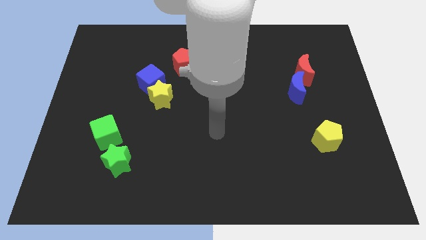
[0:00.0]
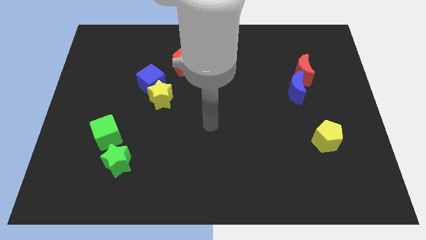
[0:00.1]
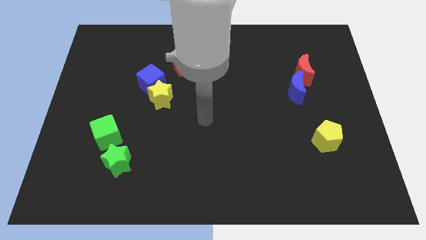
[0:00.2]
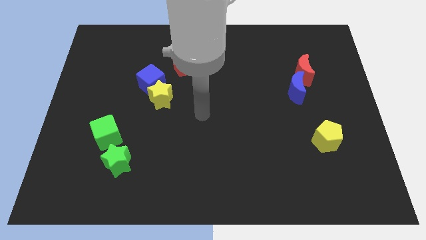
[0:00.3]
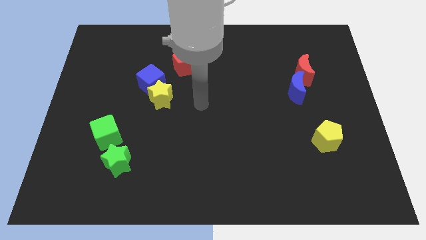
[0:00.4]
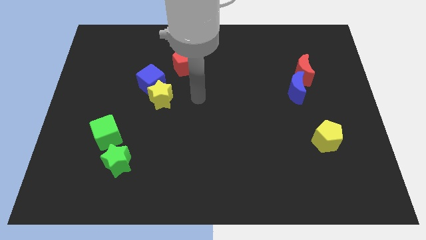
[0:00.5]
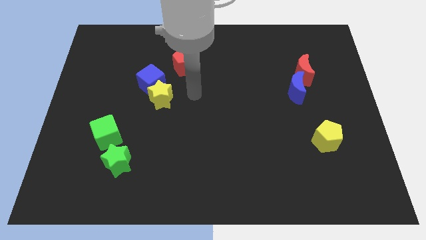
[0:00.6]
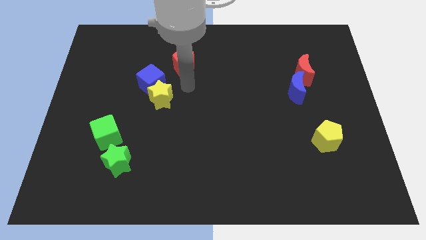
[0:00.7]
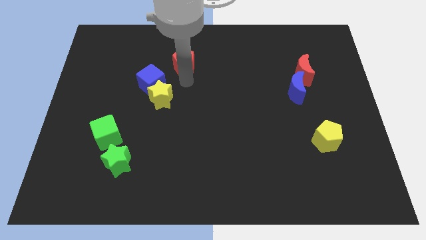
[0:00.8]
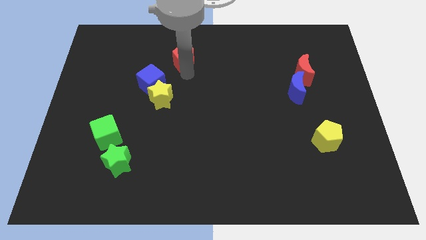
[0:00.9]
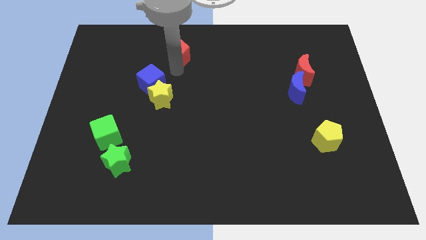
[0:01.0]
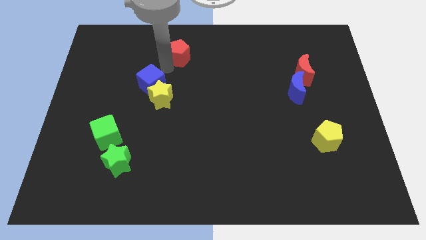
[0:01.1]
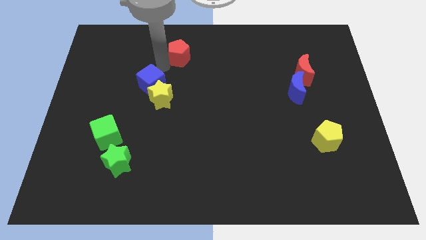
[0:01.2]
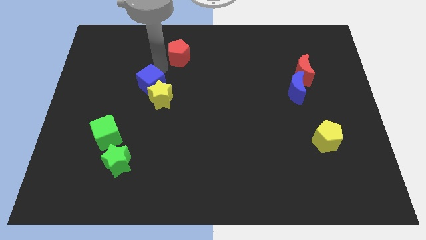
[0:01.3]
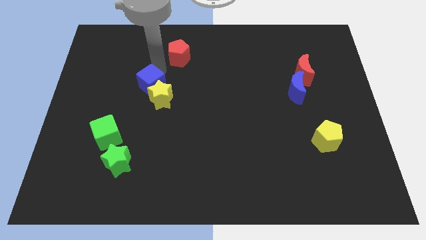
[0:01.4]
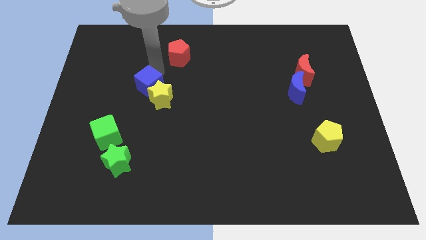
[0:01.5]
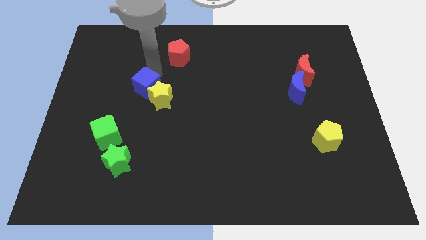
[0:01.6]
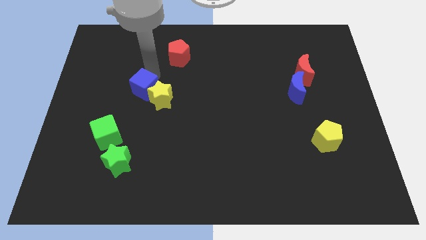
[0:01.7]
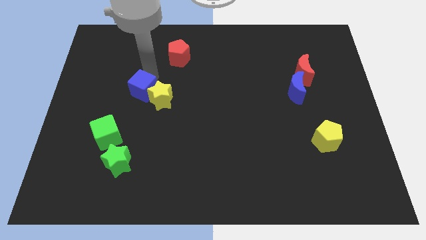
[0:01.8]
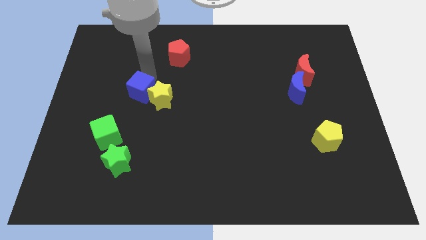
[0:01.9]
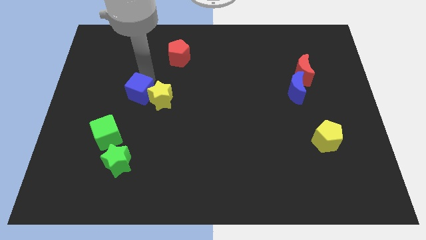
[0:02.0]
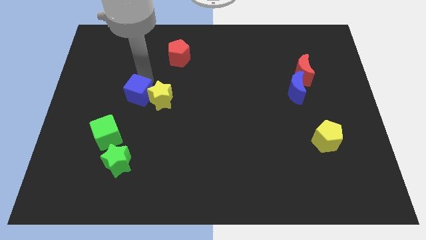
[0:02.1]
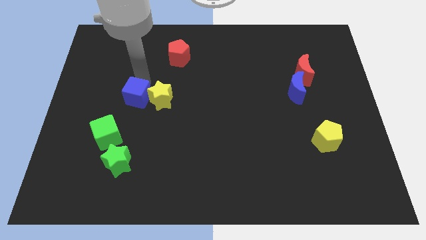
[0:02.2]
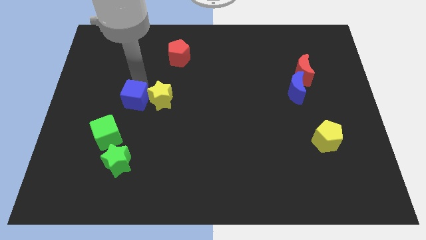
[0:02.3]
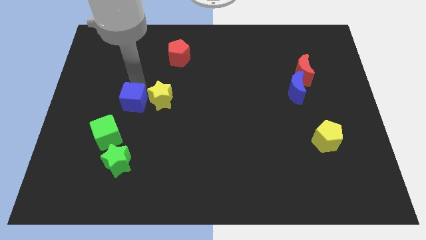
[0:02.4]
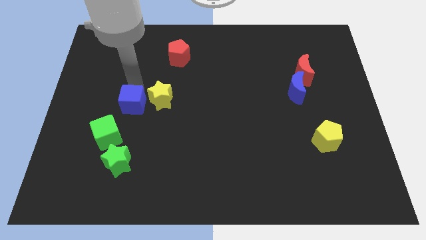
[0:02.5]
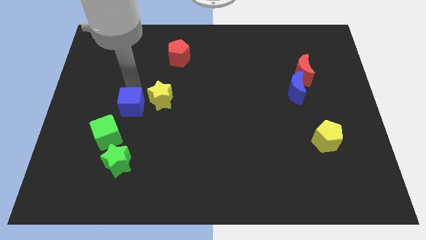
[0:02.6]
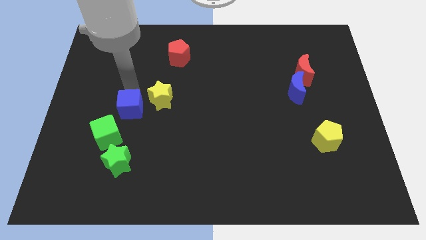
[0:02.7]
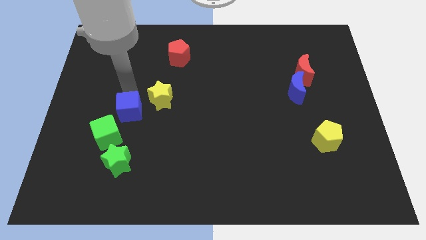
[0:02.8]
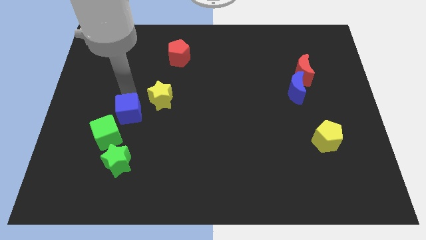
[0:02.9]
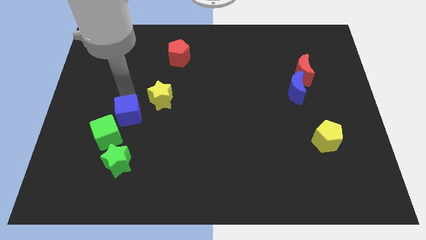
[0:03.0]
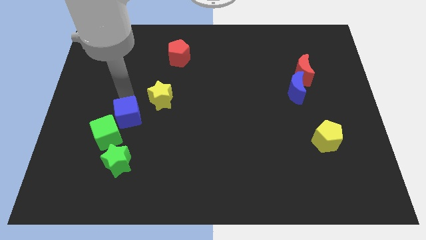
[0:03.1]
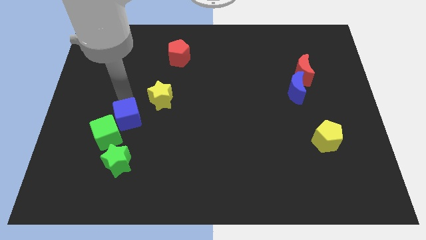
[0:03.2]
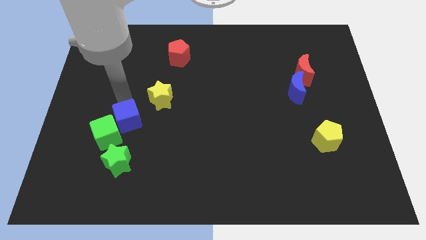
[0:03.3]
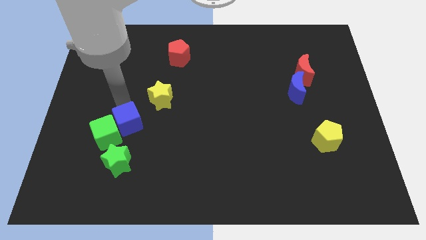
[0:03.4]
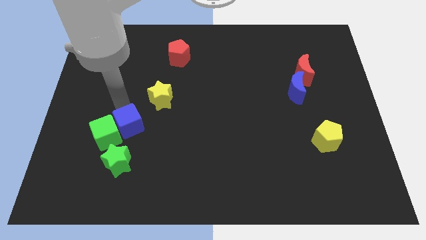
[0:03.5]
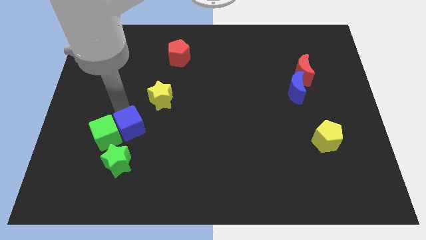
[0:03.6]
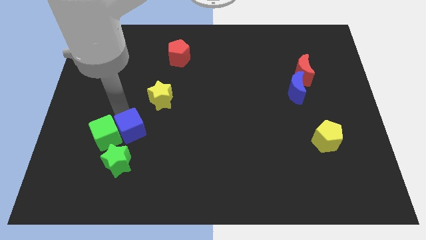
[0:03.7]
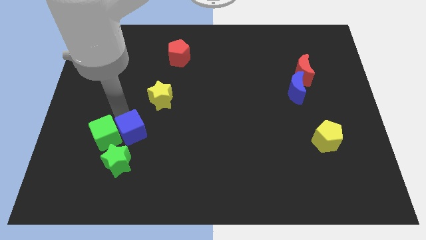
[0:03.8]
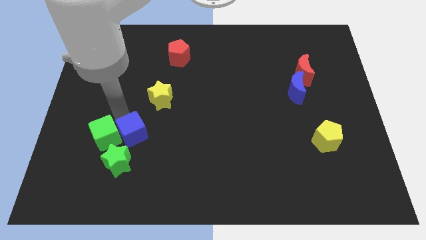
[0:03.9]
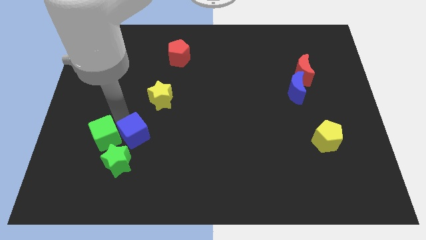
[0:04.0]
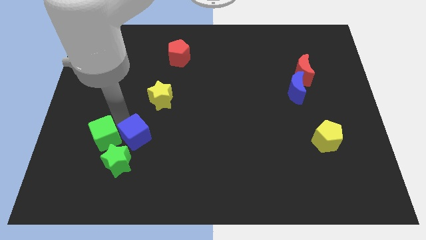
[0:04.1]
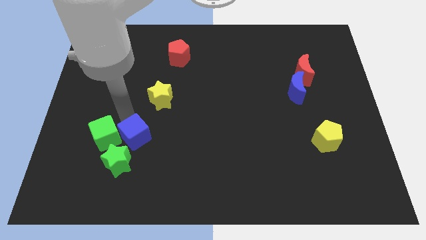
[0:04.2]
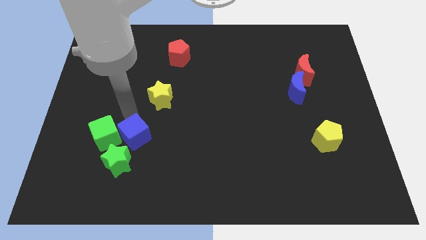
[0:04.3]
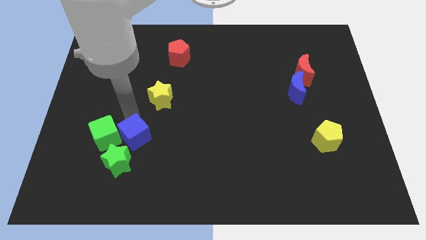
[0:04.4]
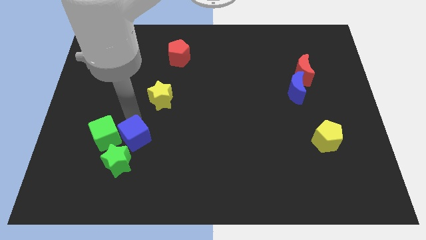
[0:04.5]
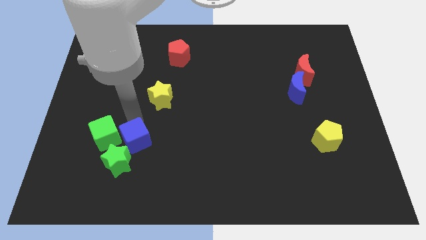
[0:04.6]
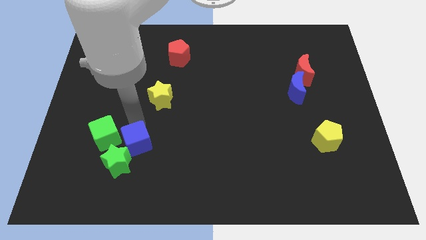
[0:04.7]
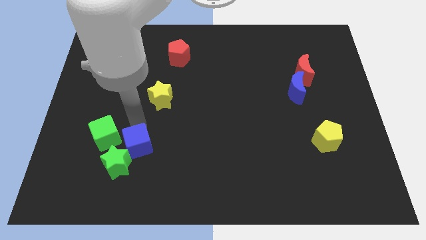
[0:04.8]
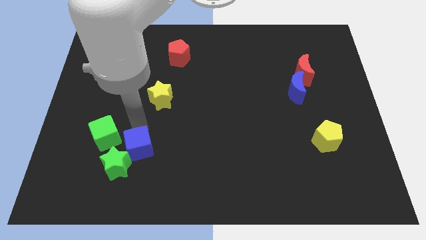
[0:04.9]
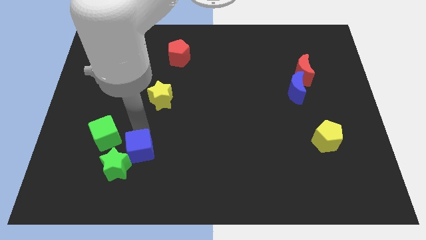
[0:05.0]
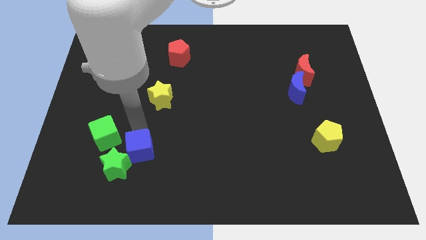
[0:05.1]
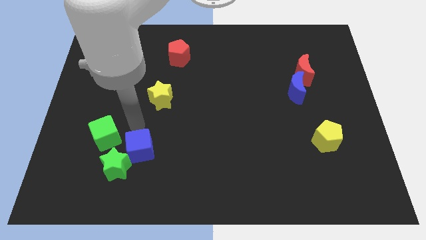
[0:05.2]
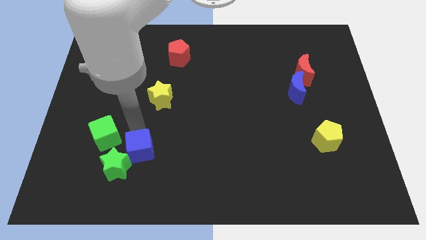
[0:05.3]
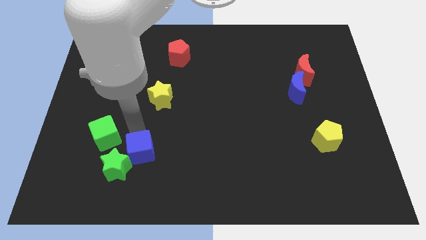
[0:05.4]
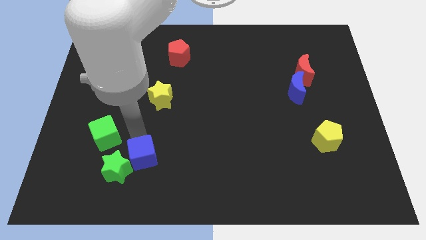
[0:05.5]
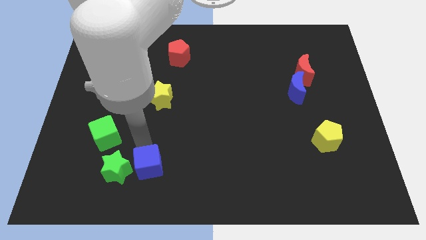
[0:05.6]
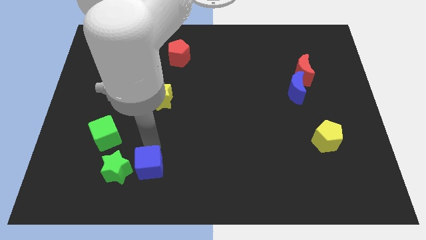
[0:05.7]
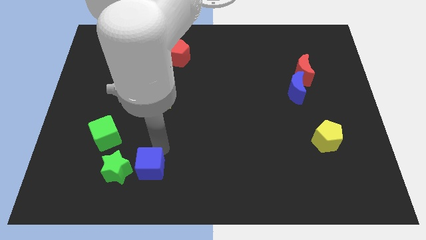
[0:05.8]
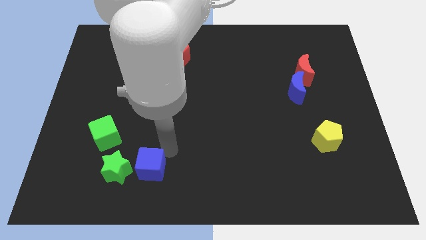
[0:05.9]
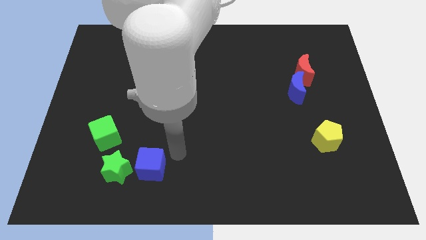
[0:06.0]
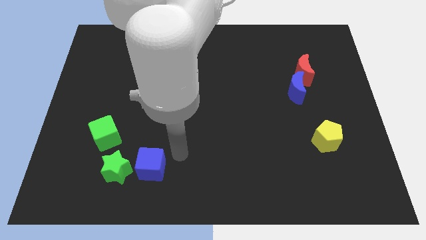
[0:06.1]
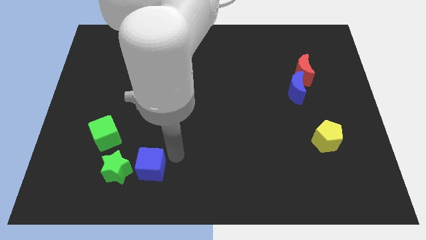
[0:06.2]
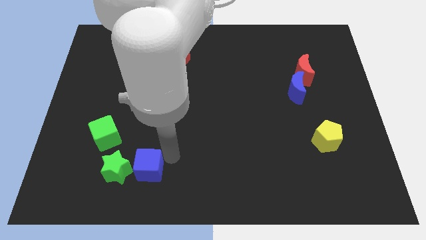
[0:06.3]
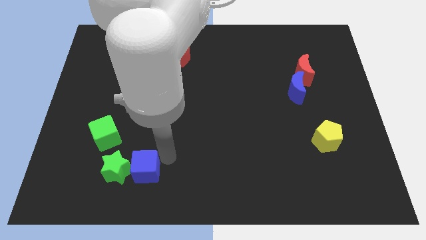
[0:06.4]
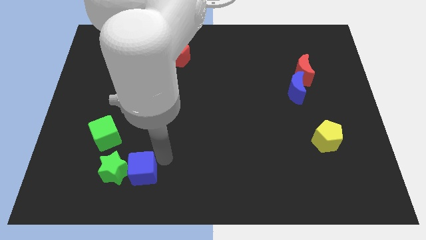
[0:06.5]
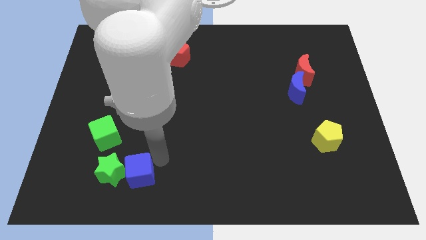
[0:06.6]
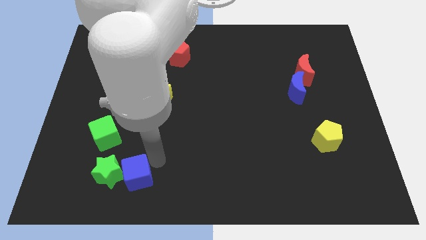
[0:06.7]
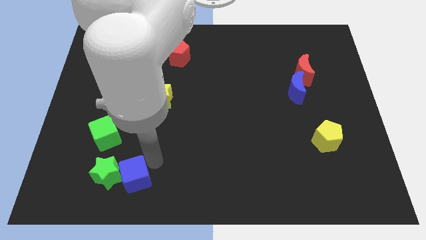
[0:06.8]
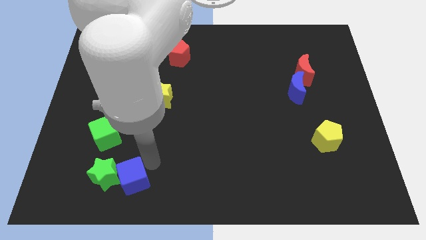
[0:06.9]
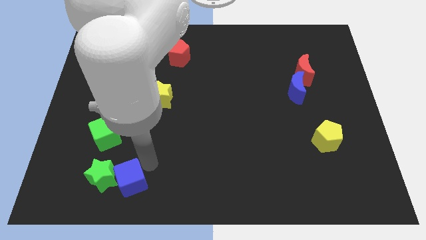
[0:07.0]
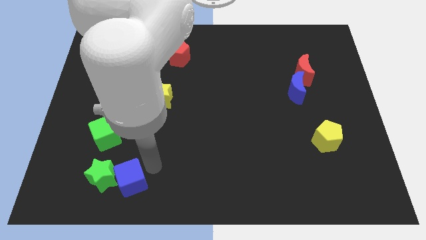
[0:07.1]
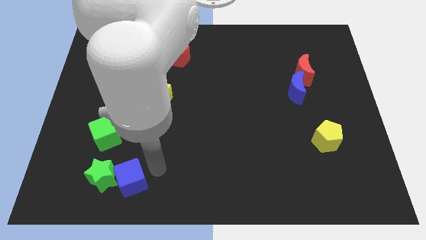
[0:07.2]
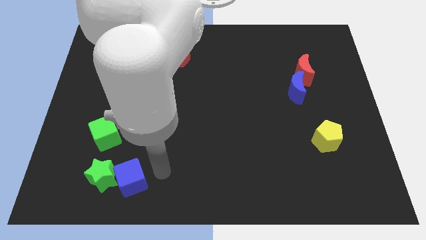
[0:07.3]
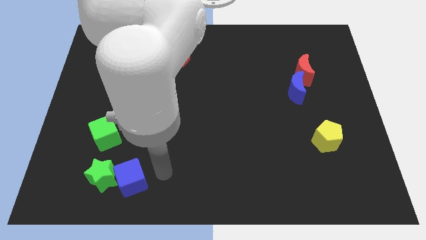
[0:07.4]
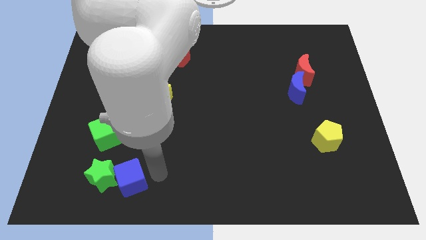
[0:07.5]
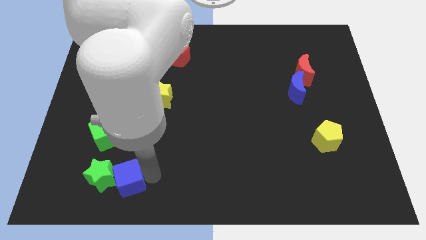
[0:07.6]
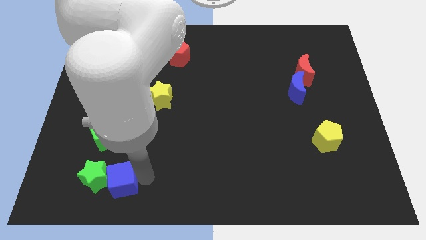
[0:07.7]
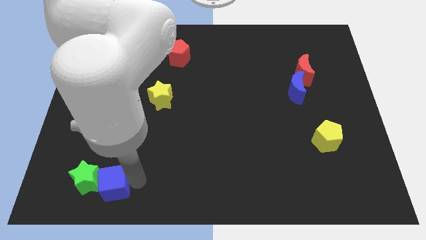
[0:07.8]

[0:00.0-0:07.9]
move the blue cube to the bottom side of the green cube
